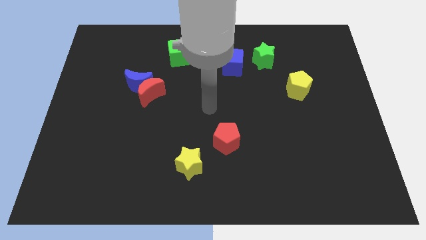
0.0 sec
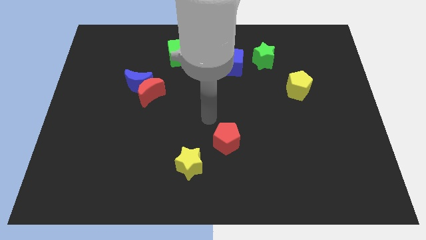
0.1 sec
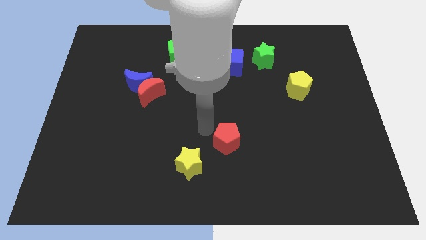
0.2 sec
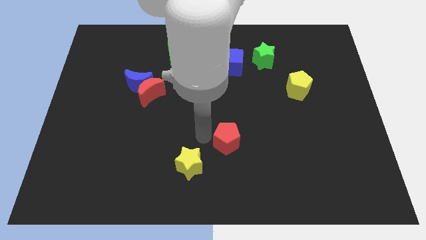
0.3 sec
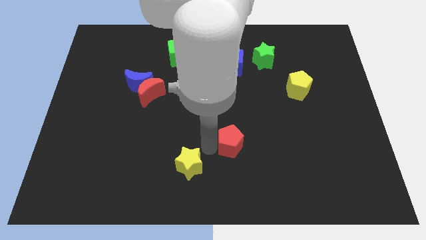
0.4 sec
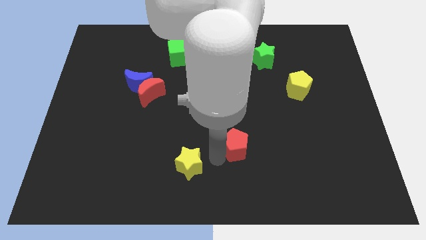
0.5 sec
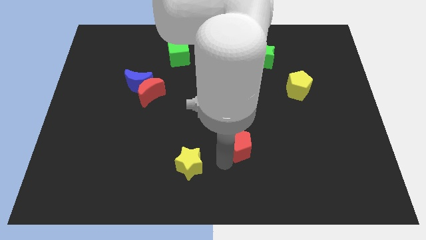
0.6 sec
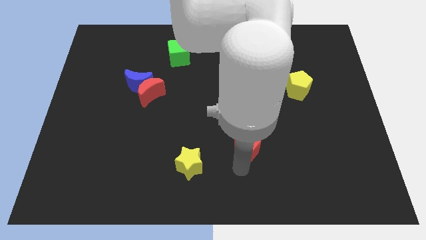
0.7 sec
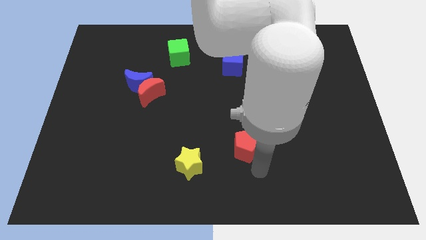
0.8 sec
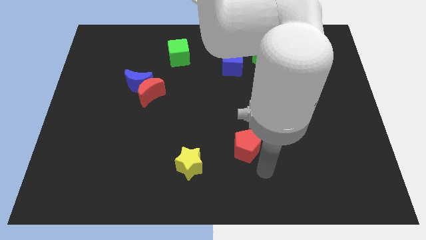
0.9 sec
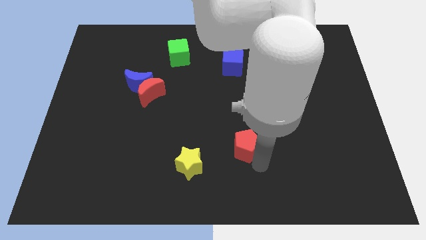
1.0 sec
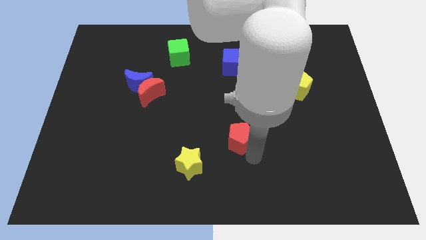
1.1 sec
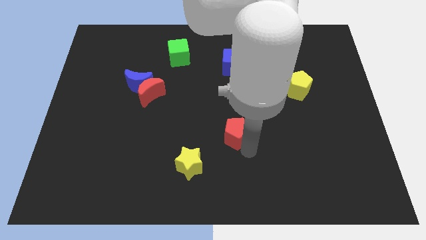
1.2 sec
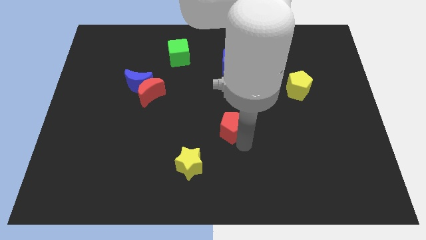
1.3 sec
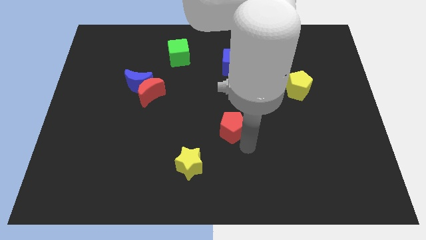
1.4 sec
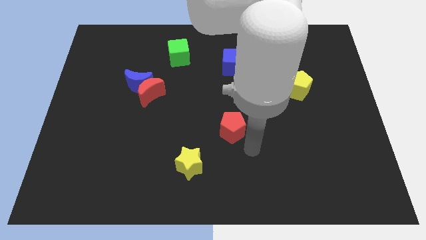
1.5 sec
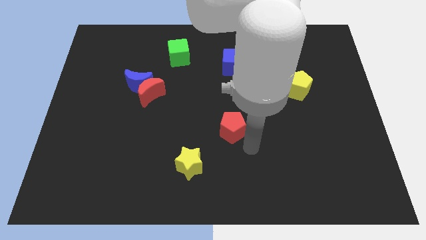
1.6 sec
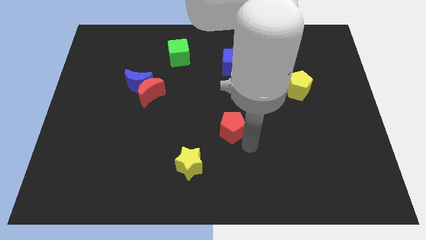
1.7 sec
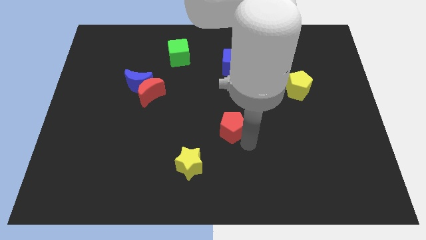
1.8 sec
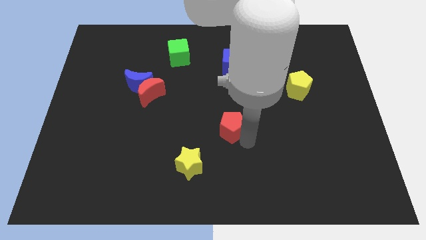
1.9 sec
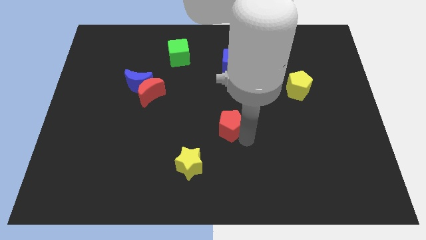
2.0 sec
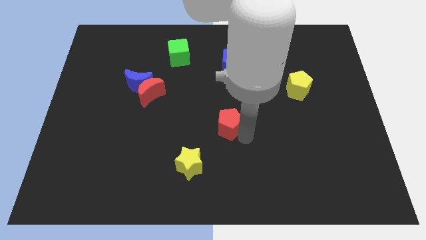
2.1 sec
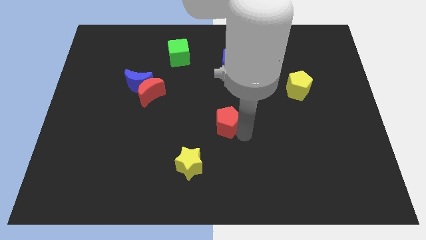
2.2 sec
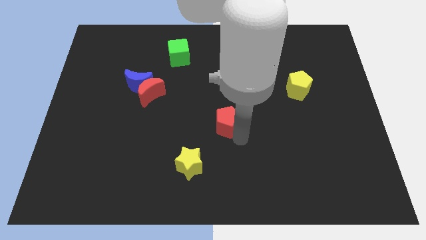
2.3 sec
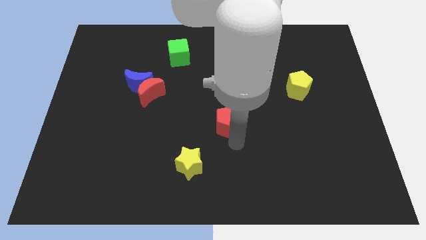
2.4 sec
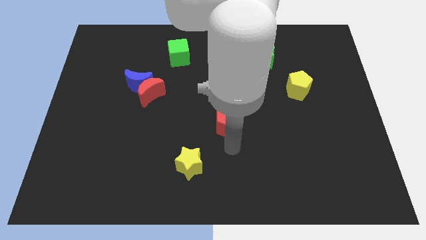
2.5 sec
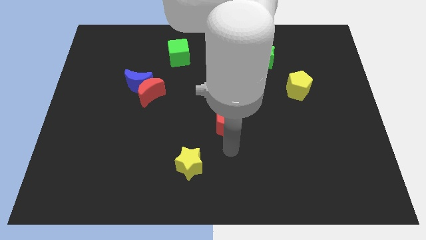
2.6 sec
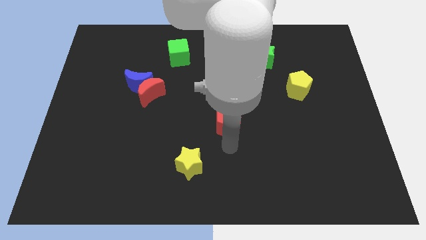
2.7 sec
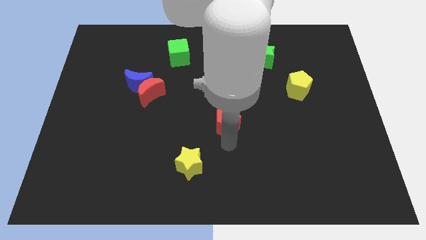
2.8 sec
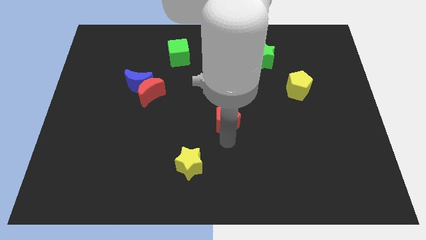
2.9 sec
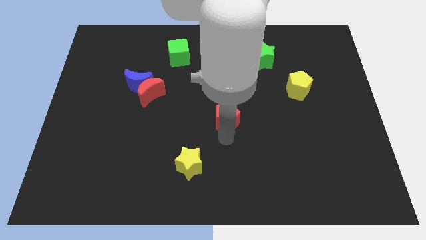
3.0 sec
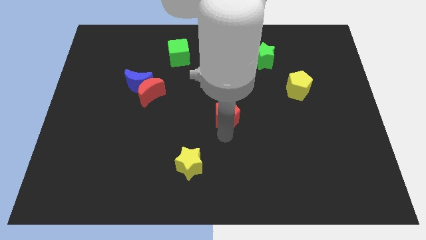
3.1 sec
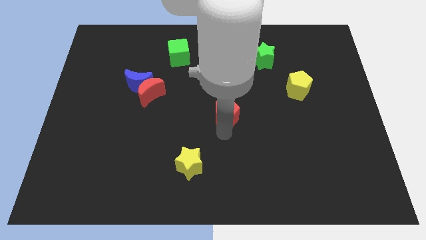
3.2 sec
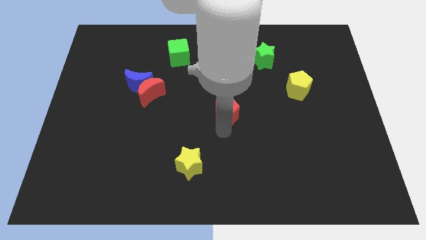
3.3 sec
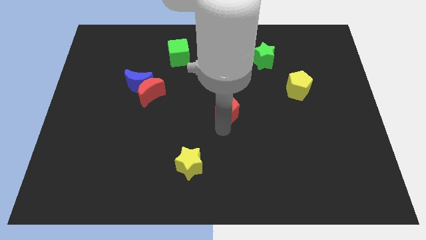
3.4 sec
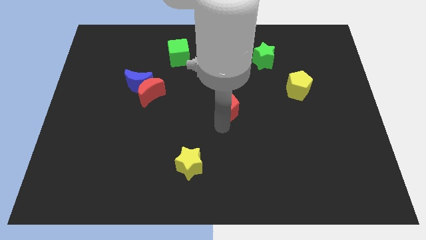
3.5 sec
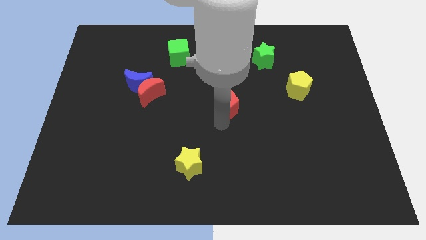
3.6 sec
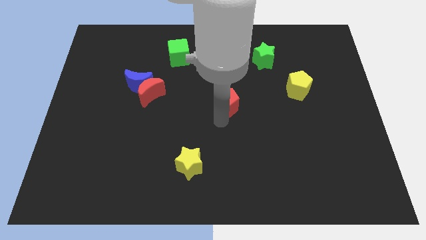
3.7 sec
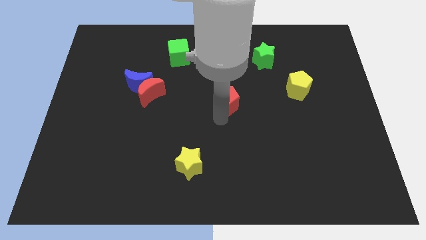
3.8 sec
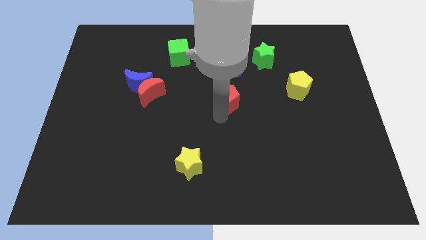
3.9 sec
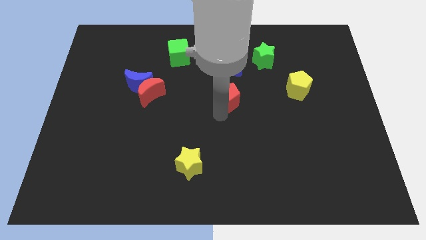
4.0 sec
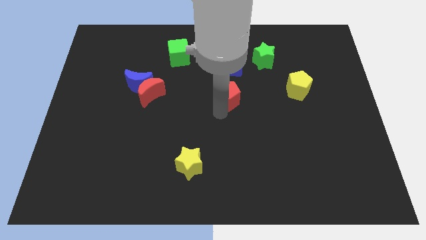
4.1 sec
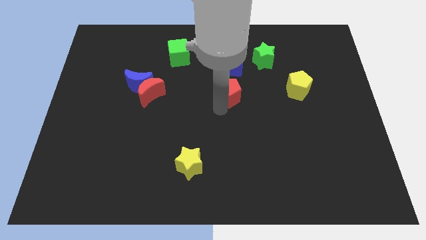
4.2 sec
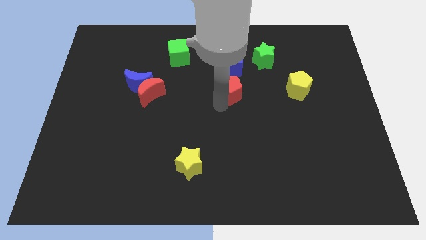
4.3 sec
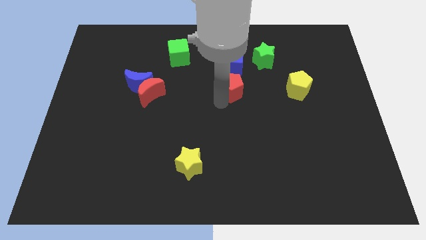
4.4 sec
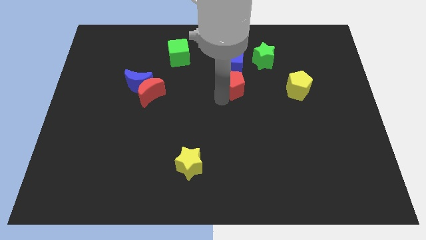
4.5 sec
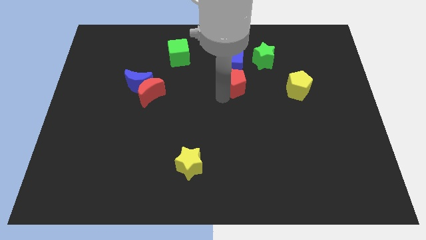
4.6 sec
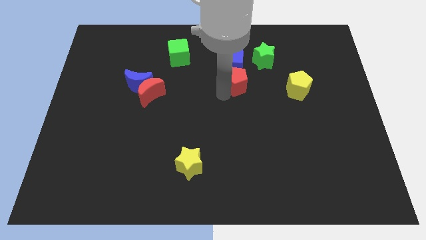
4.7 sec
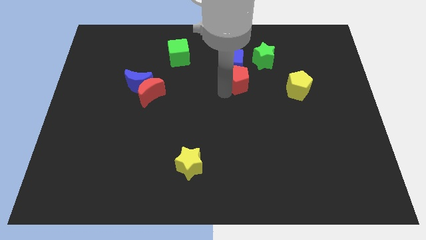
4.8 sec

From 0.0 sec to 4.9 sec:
put the red pentagon next to the blue cube

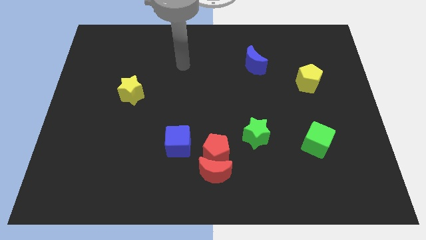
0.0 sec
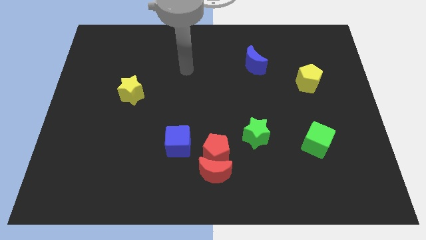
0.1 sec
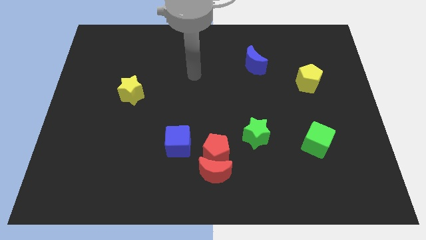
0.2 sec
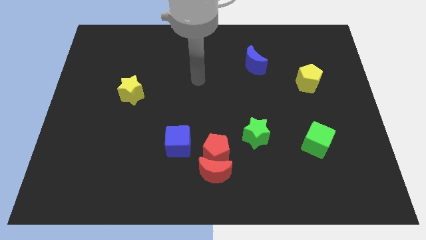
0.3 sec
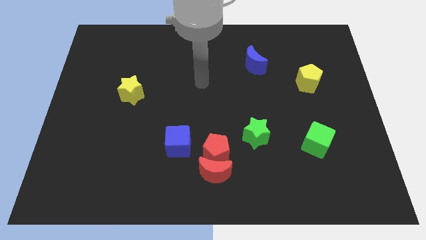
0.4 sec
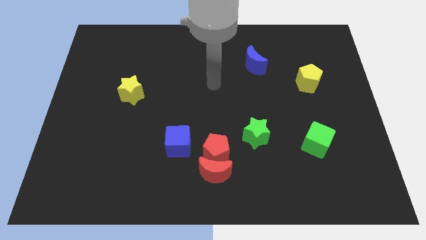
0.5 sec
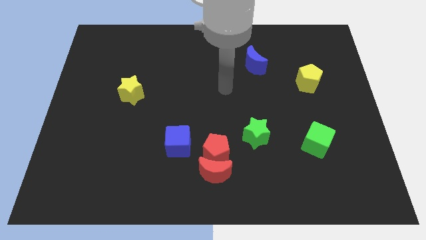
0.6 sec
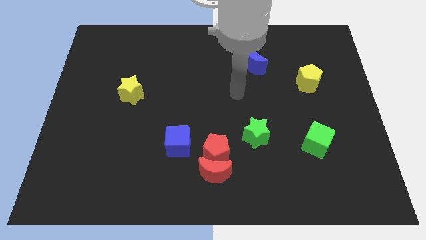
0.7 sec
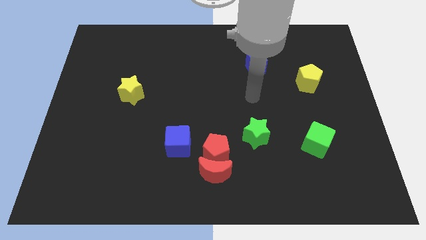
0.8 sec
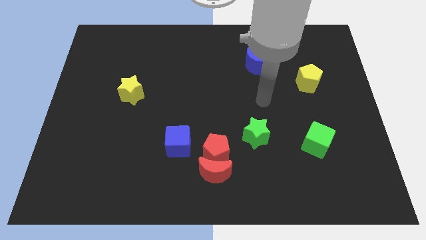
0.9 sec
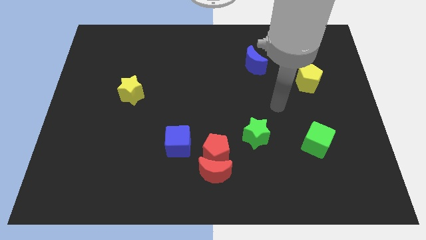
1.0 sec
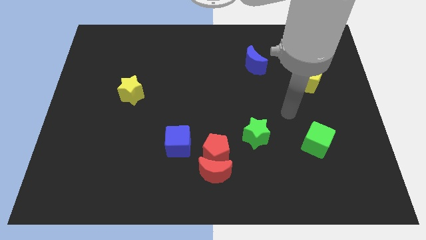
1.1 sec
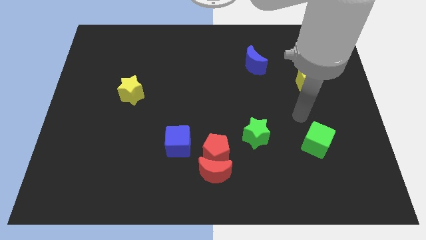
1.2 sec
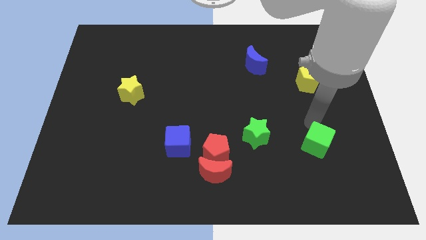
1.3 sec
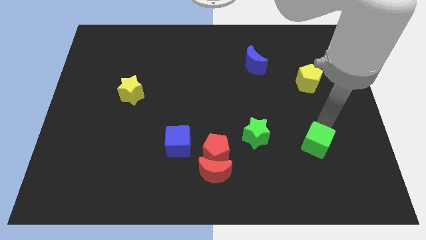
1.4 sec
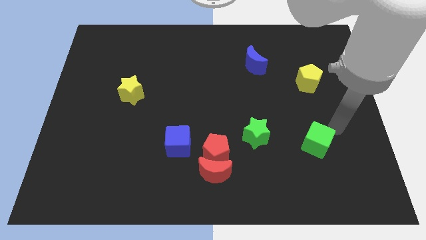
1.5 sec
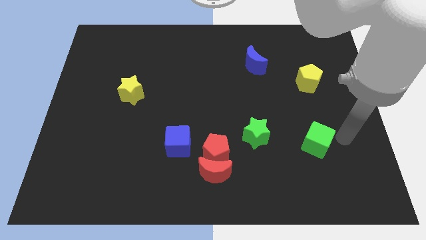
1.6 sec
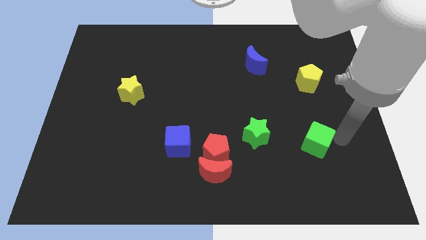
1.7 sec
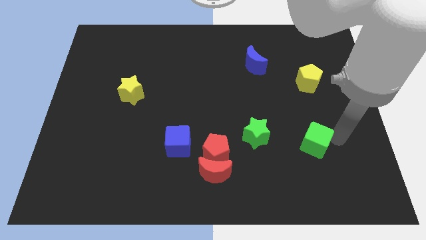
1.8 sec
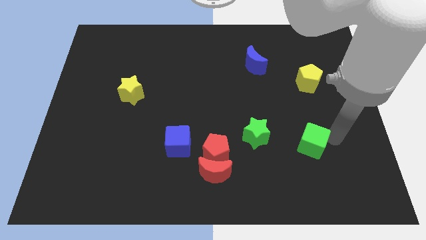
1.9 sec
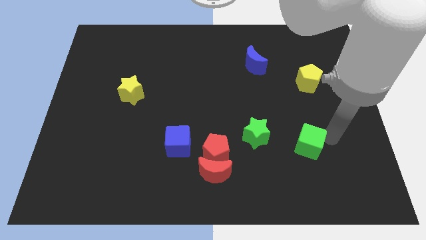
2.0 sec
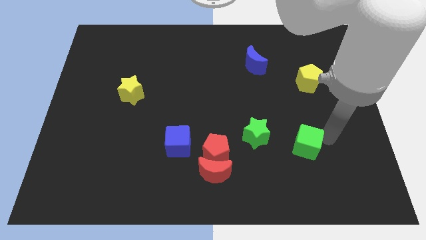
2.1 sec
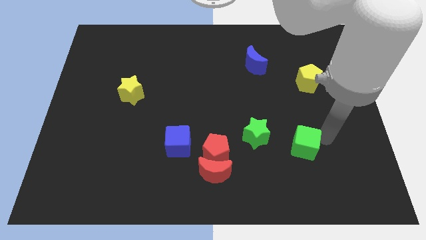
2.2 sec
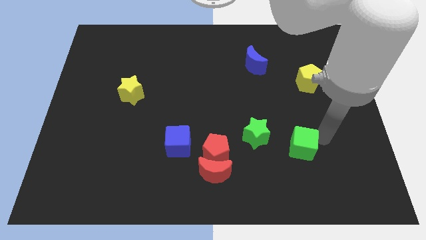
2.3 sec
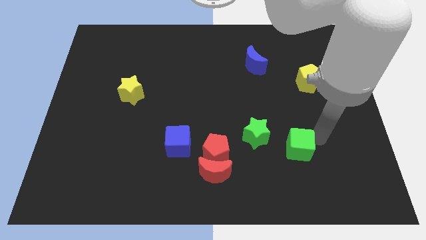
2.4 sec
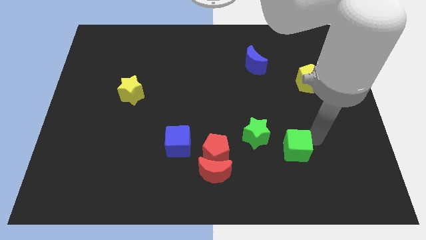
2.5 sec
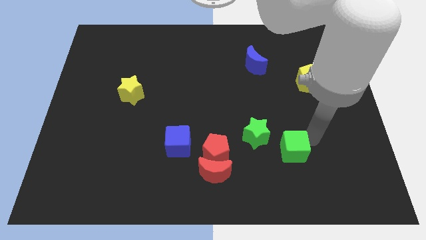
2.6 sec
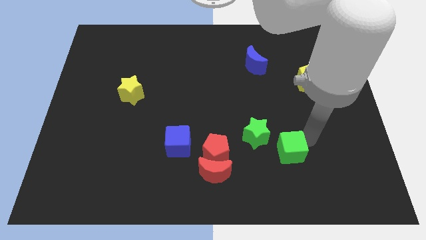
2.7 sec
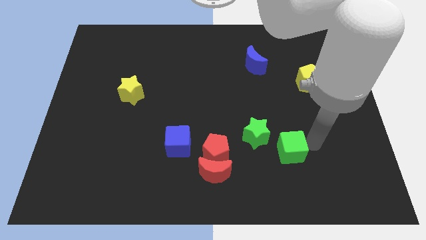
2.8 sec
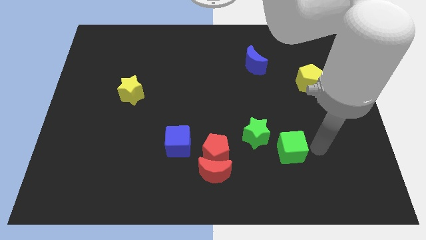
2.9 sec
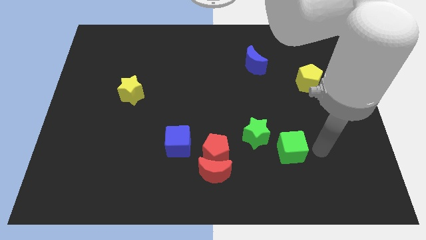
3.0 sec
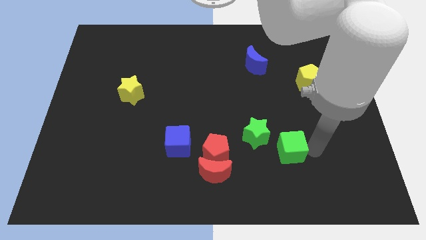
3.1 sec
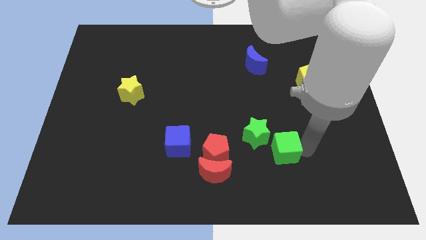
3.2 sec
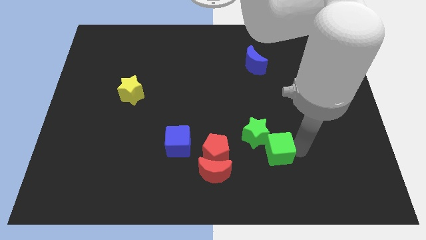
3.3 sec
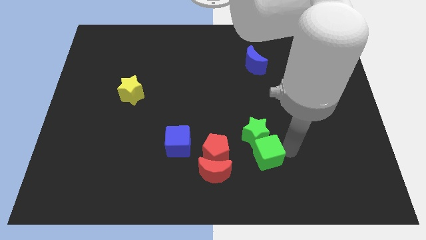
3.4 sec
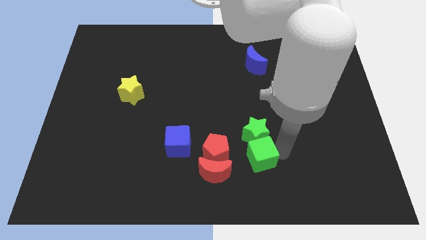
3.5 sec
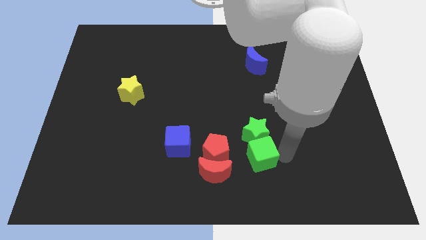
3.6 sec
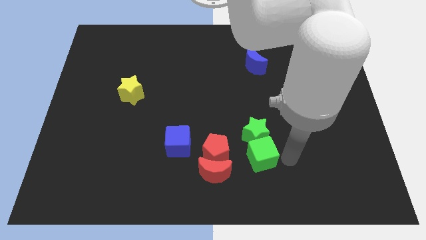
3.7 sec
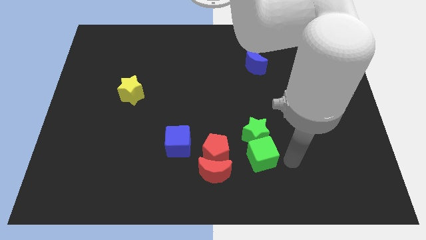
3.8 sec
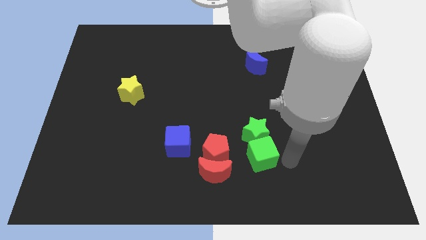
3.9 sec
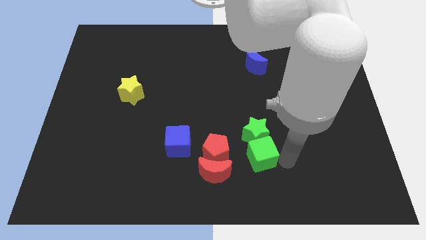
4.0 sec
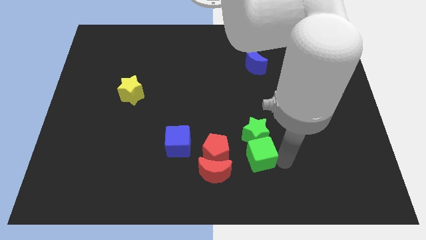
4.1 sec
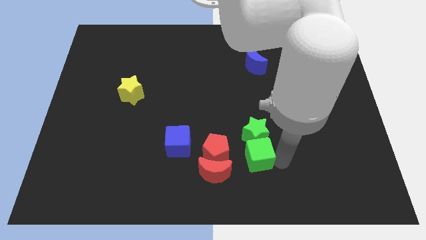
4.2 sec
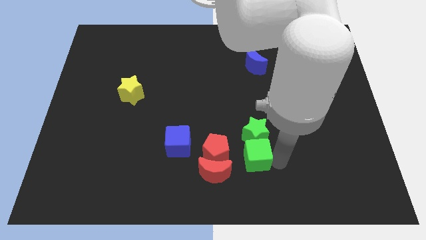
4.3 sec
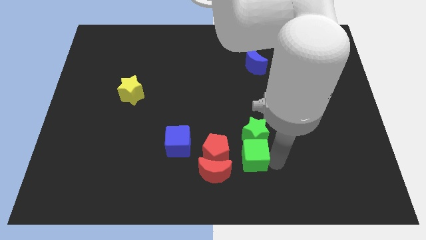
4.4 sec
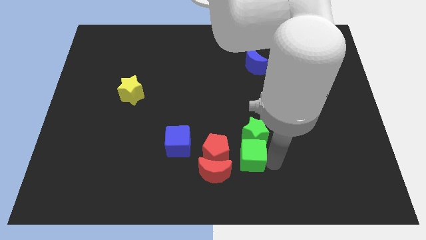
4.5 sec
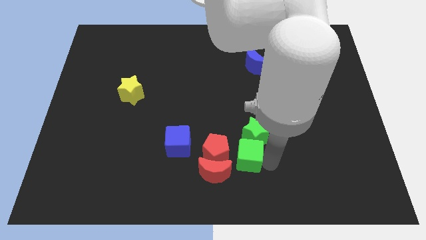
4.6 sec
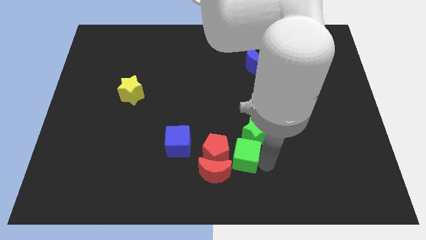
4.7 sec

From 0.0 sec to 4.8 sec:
slide the green cube next to the red pentagon
